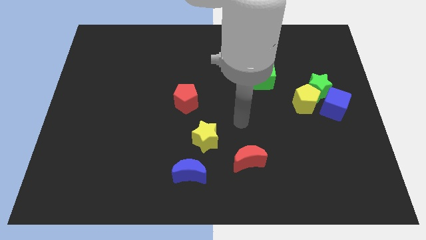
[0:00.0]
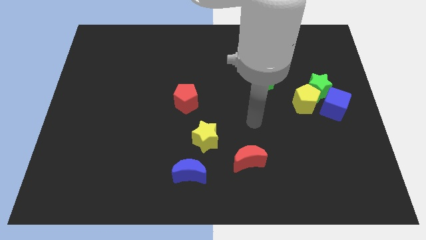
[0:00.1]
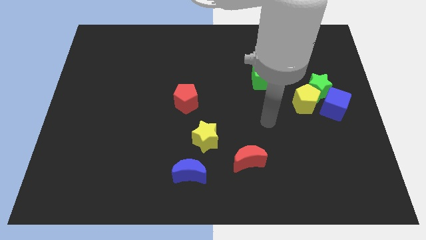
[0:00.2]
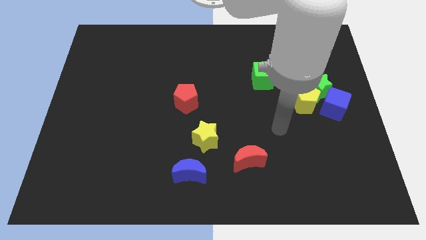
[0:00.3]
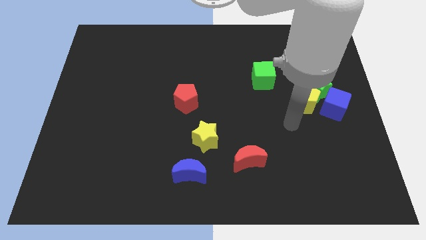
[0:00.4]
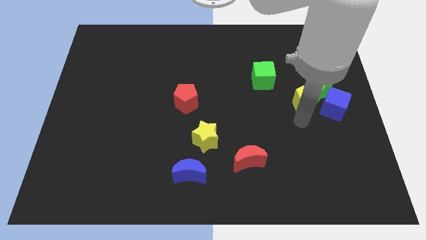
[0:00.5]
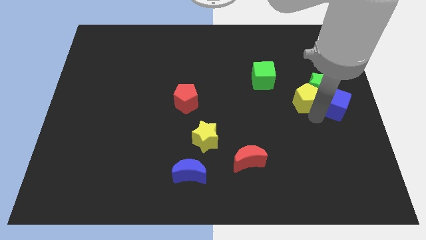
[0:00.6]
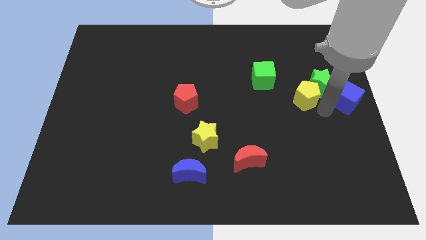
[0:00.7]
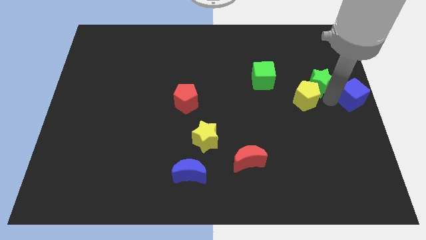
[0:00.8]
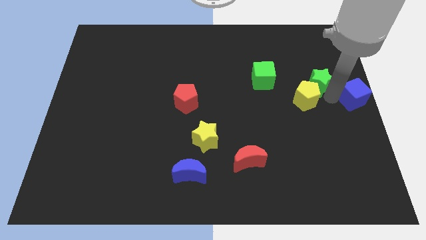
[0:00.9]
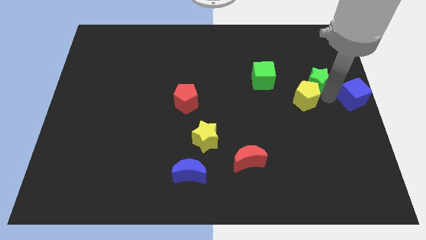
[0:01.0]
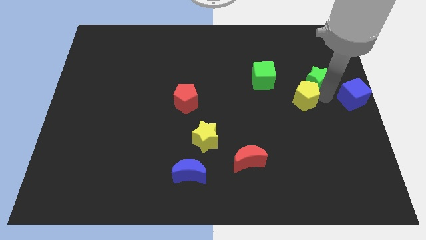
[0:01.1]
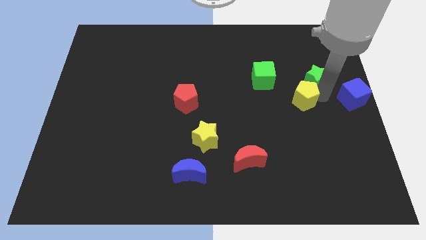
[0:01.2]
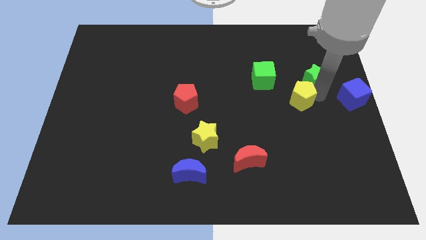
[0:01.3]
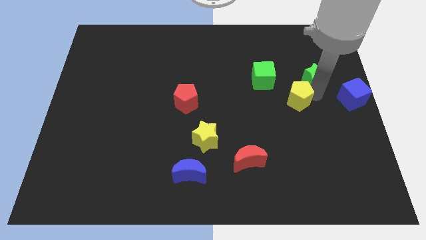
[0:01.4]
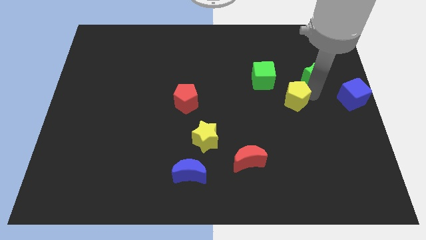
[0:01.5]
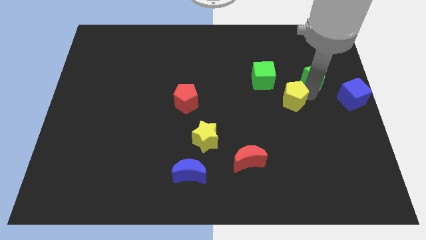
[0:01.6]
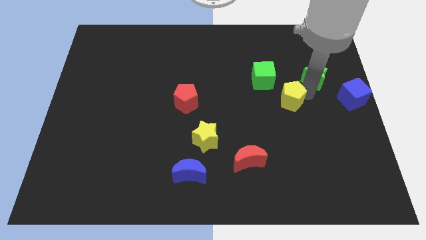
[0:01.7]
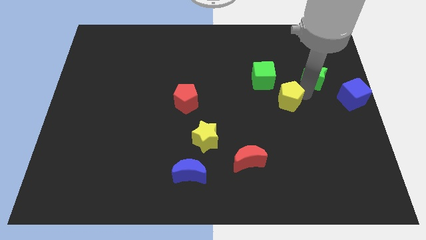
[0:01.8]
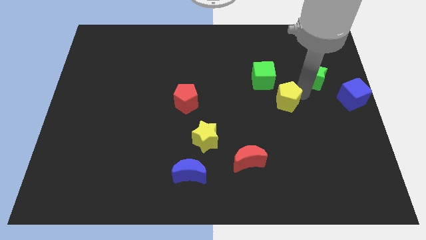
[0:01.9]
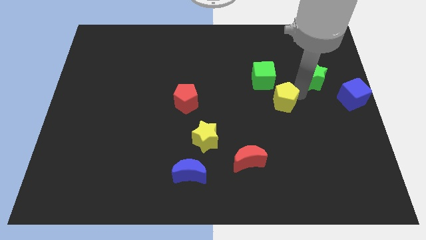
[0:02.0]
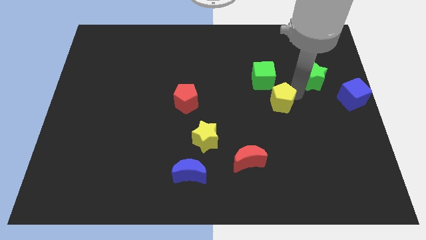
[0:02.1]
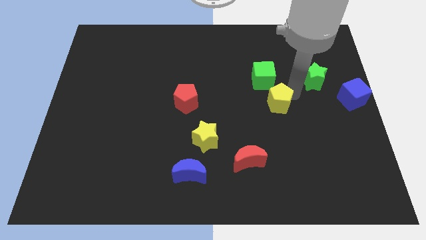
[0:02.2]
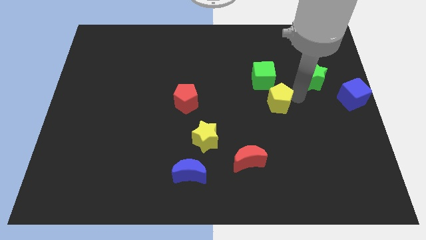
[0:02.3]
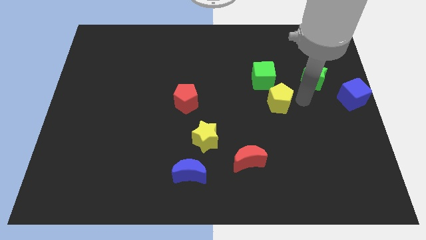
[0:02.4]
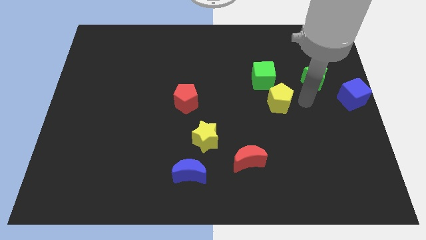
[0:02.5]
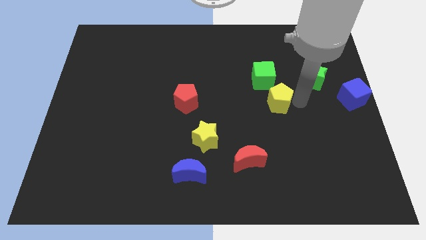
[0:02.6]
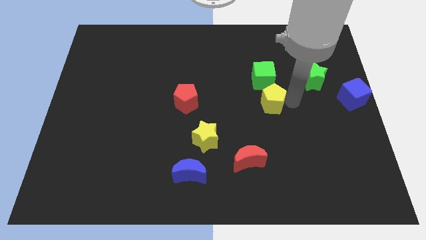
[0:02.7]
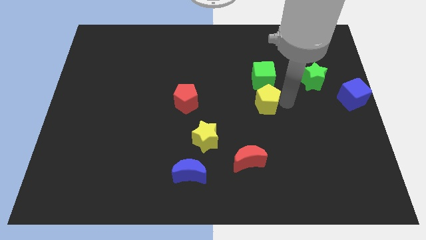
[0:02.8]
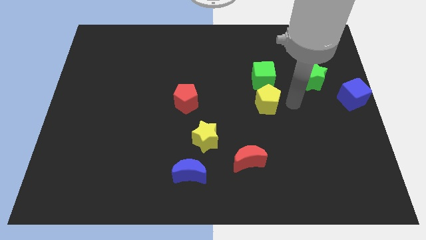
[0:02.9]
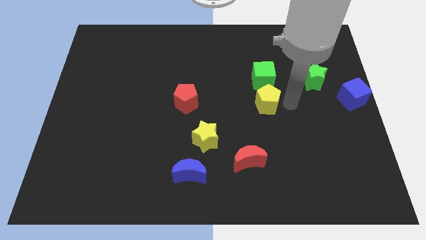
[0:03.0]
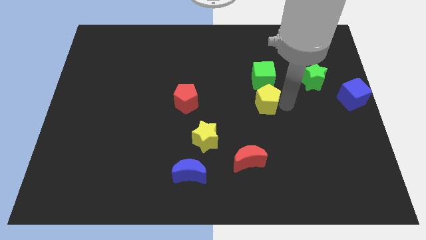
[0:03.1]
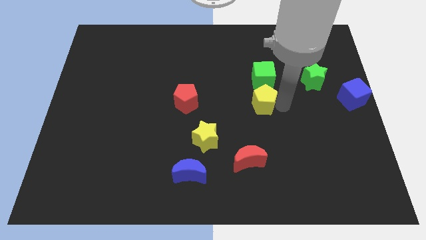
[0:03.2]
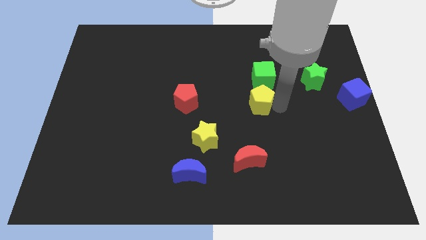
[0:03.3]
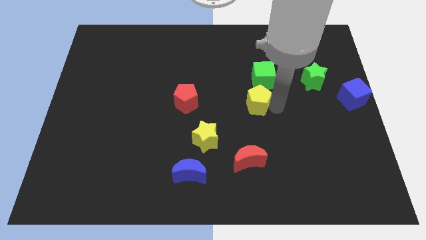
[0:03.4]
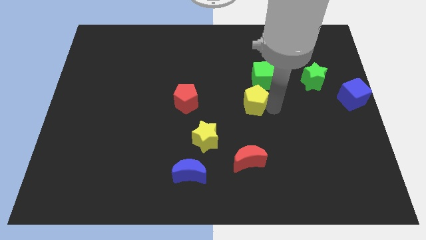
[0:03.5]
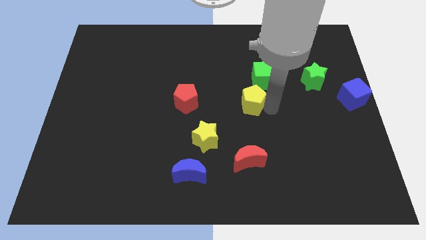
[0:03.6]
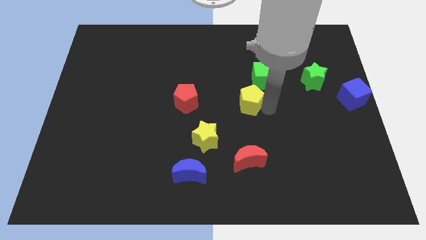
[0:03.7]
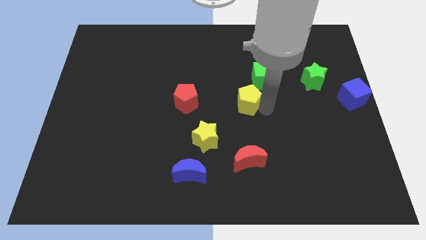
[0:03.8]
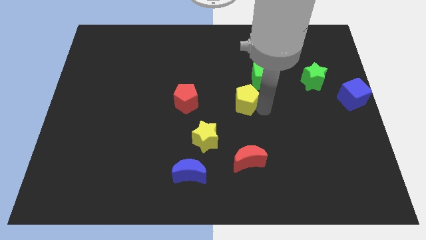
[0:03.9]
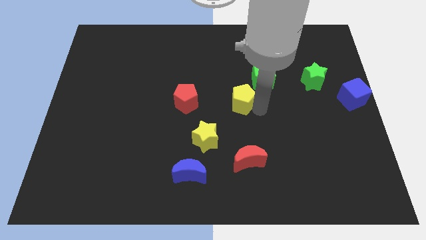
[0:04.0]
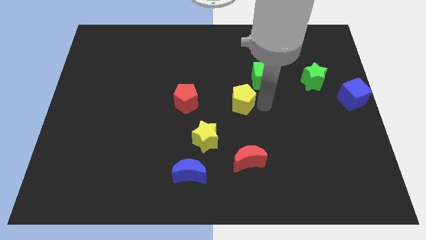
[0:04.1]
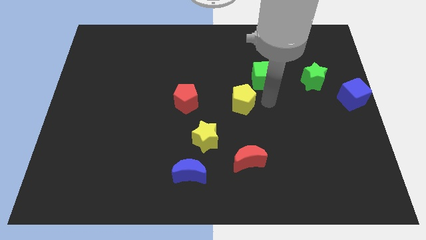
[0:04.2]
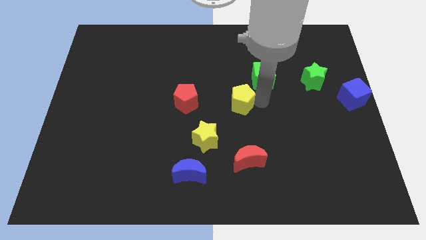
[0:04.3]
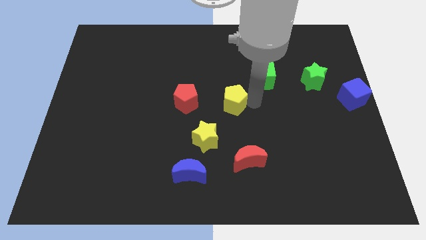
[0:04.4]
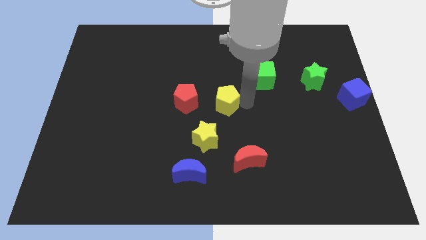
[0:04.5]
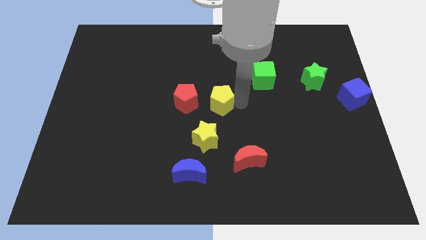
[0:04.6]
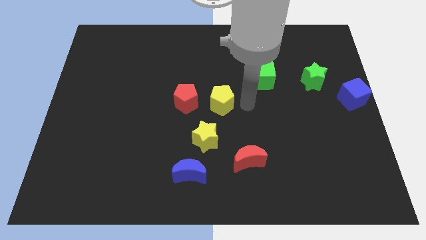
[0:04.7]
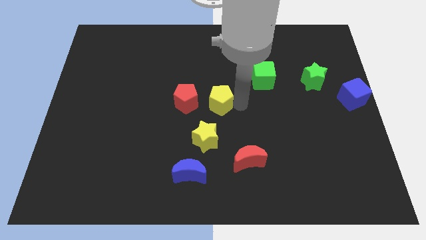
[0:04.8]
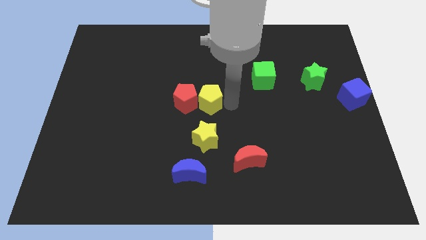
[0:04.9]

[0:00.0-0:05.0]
put the yellow pentagon towards the red pentagon
